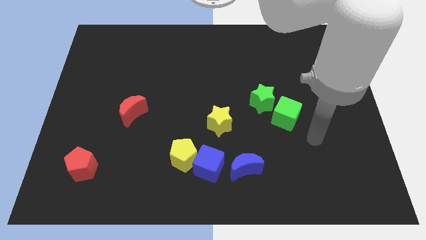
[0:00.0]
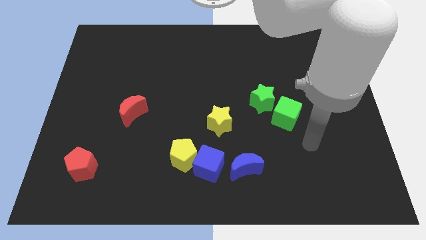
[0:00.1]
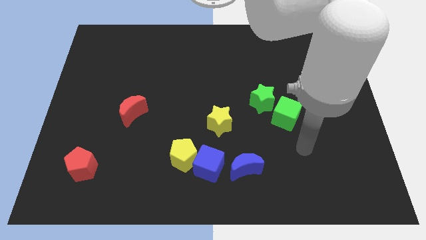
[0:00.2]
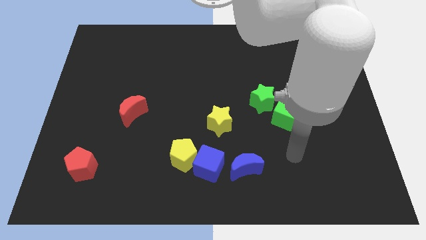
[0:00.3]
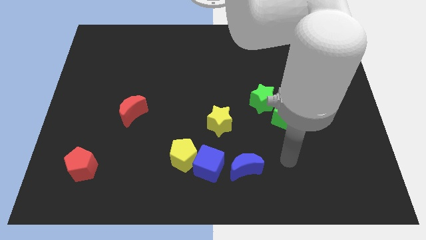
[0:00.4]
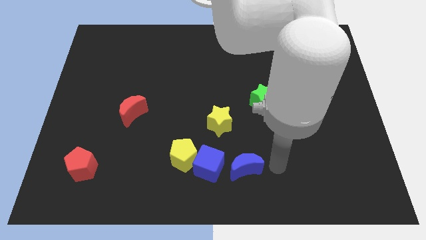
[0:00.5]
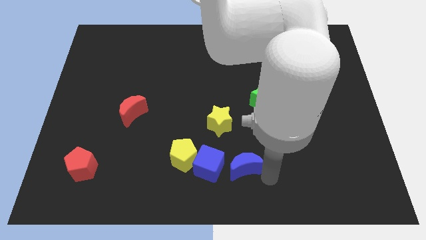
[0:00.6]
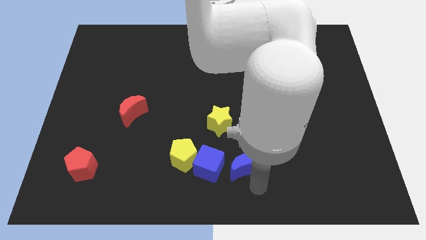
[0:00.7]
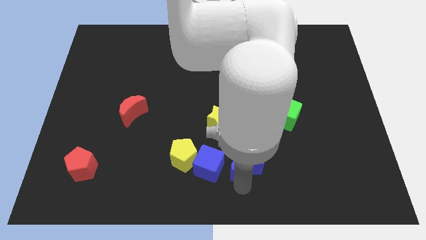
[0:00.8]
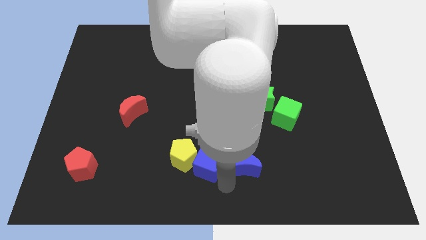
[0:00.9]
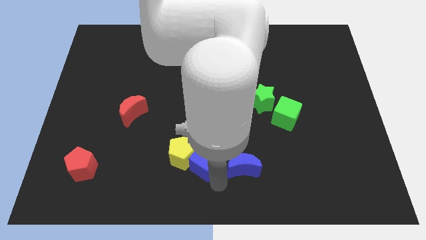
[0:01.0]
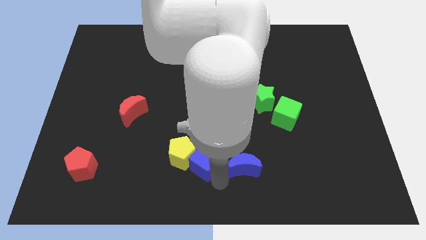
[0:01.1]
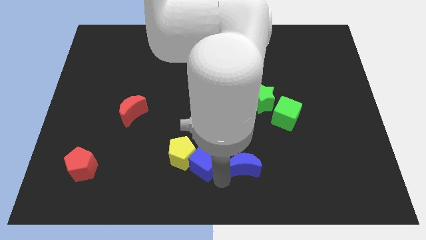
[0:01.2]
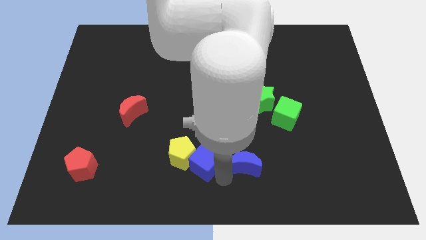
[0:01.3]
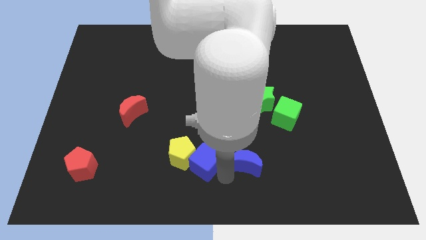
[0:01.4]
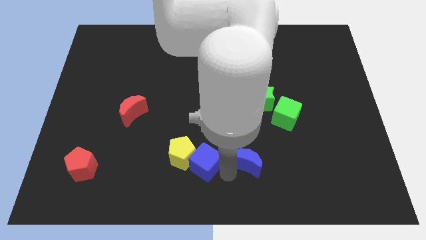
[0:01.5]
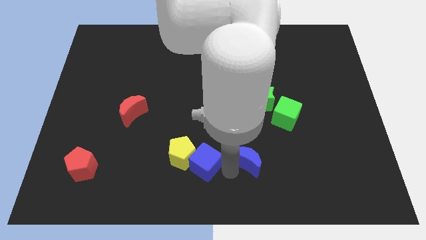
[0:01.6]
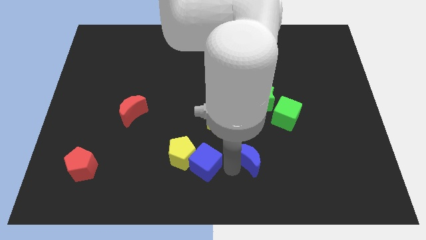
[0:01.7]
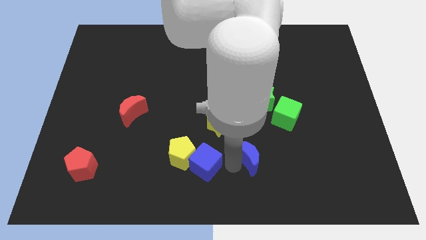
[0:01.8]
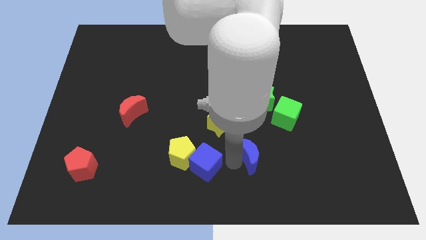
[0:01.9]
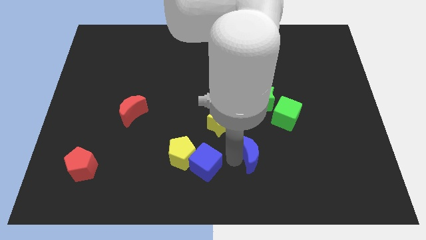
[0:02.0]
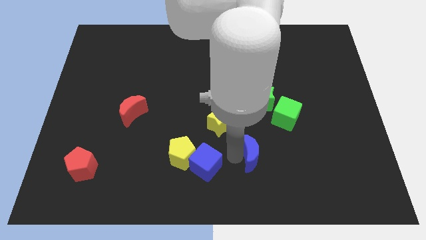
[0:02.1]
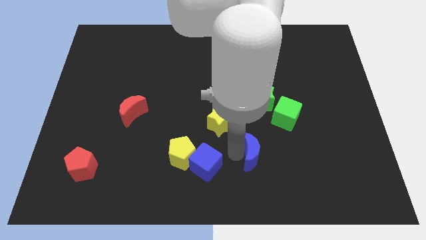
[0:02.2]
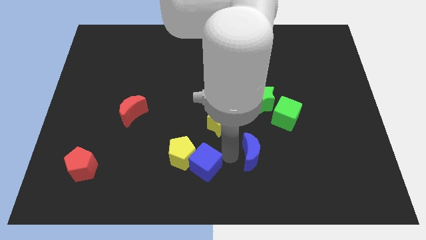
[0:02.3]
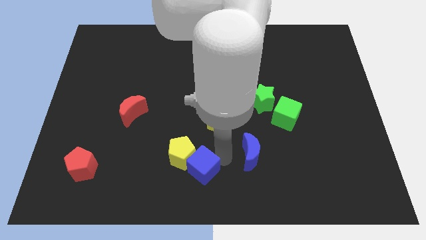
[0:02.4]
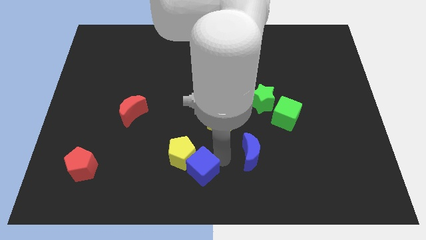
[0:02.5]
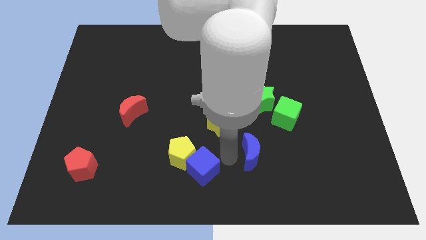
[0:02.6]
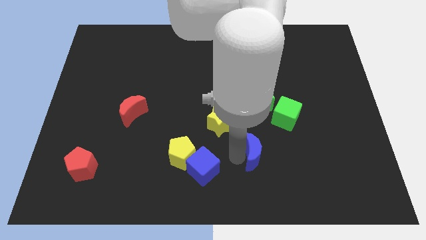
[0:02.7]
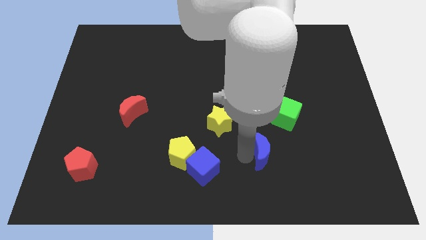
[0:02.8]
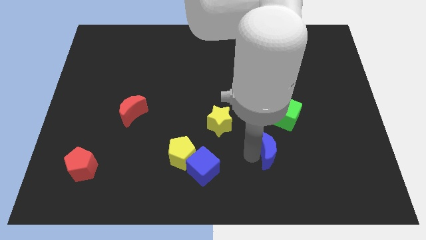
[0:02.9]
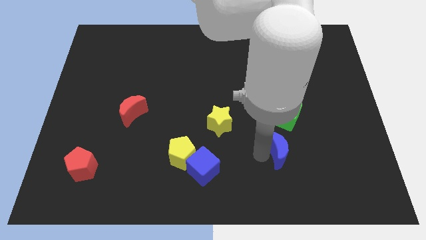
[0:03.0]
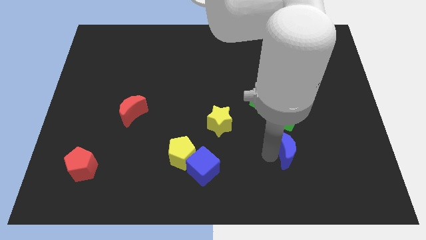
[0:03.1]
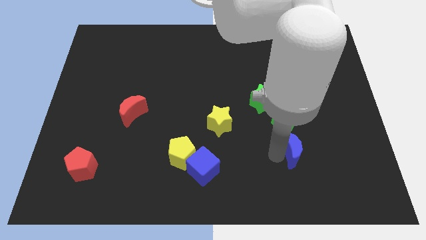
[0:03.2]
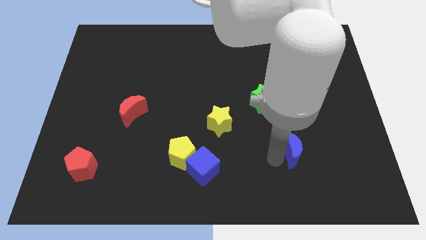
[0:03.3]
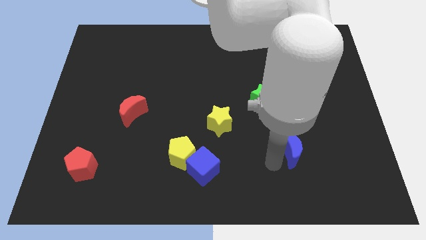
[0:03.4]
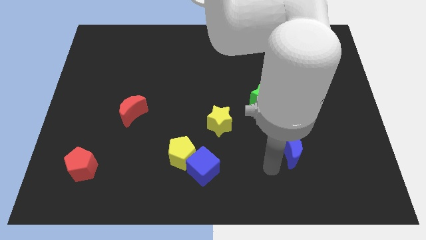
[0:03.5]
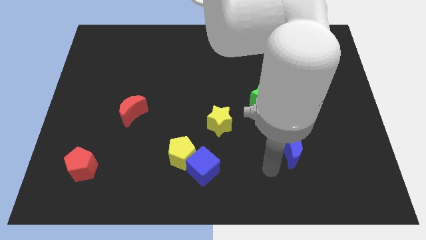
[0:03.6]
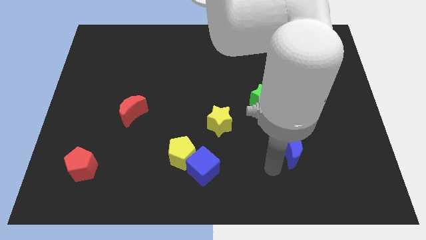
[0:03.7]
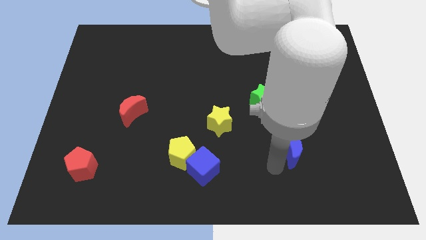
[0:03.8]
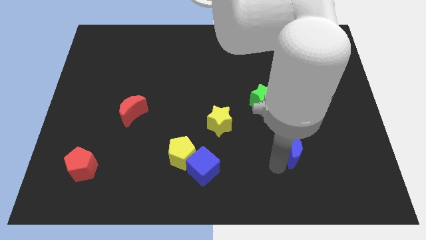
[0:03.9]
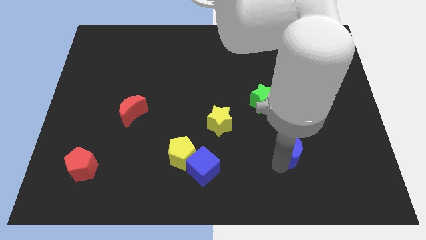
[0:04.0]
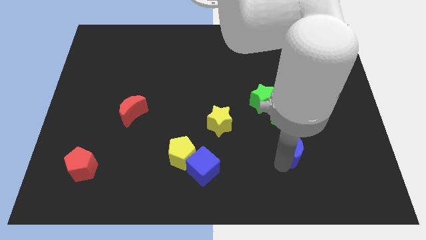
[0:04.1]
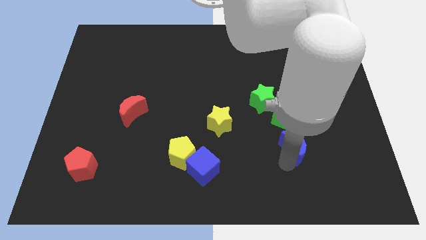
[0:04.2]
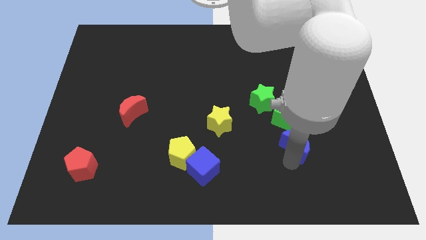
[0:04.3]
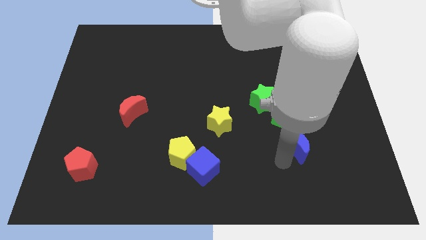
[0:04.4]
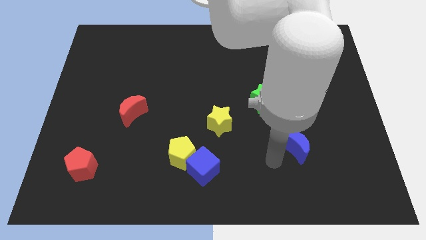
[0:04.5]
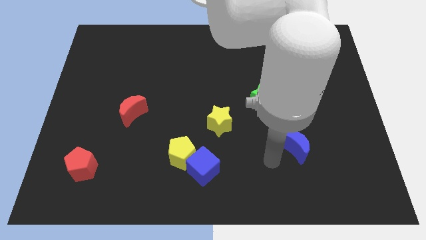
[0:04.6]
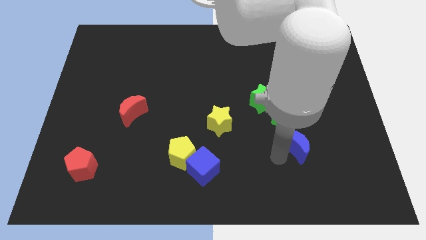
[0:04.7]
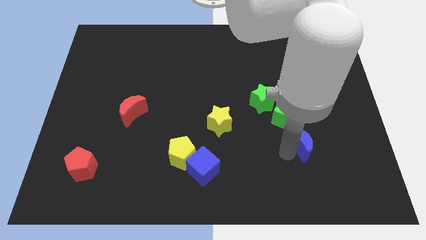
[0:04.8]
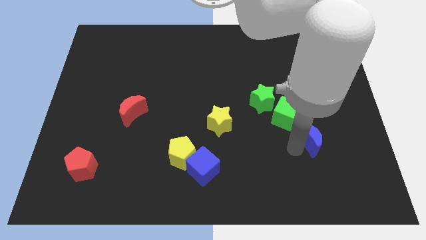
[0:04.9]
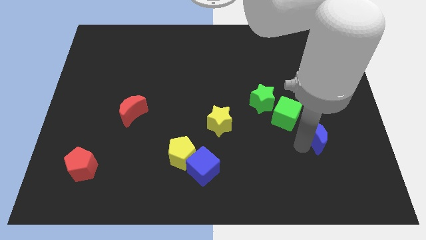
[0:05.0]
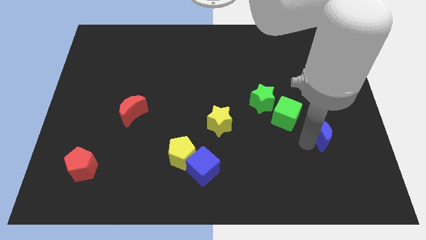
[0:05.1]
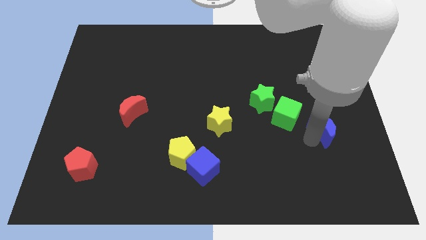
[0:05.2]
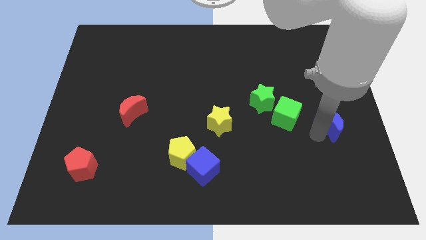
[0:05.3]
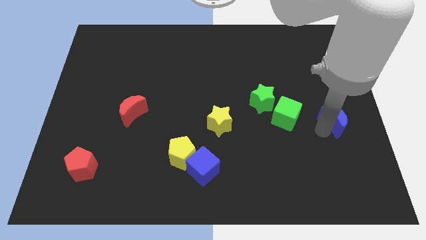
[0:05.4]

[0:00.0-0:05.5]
push the blue moon to the center right

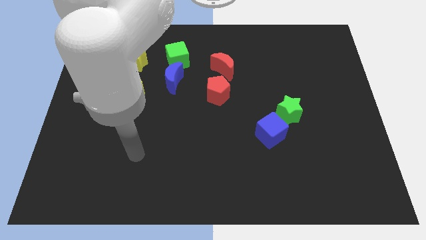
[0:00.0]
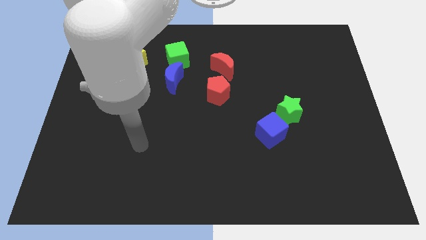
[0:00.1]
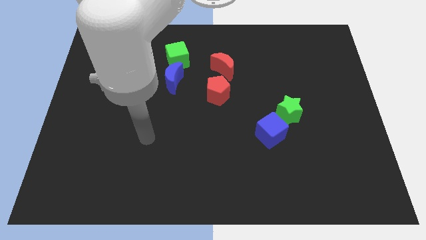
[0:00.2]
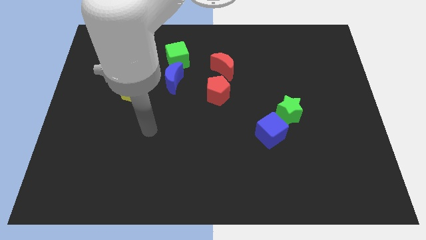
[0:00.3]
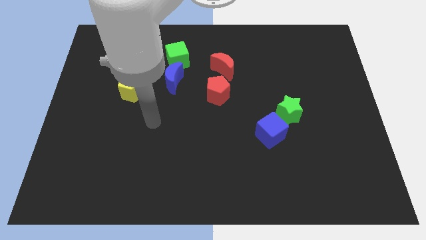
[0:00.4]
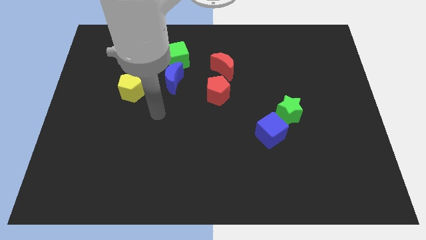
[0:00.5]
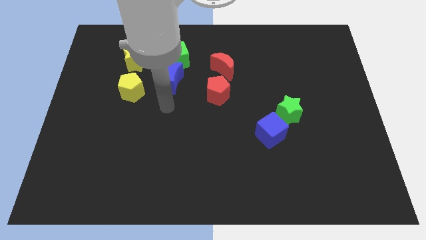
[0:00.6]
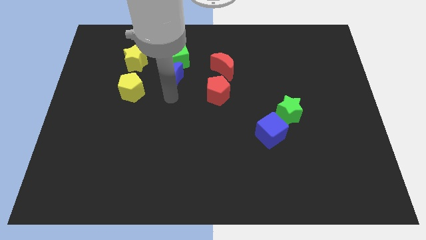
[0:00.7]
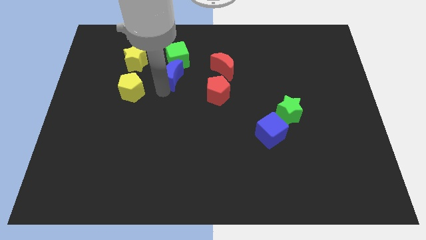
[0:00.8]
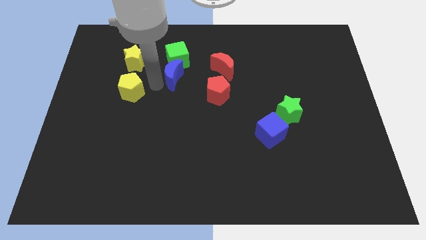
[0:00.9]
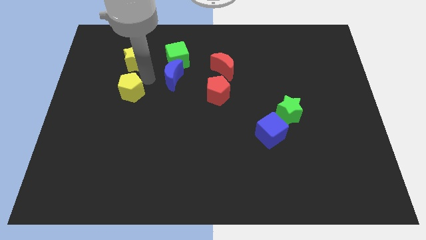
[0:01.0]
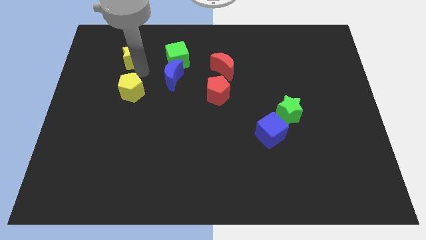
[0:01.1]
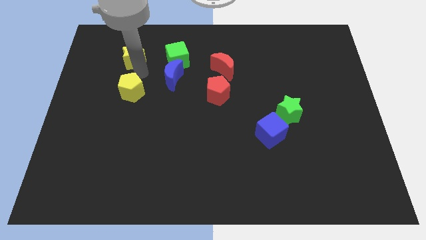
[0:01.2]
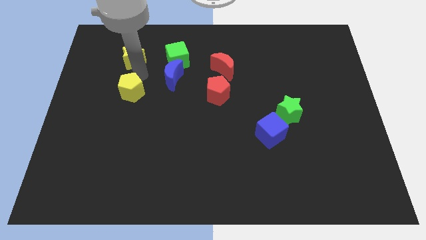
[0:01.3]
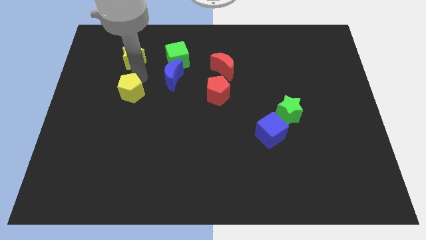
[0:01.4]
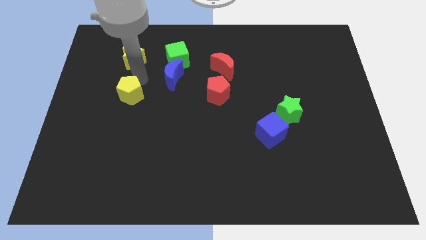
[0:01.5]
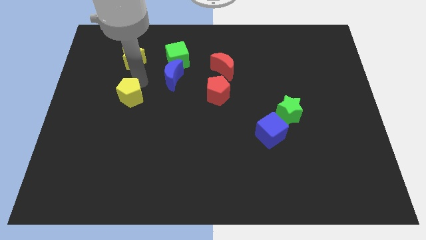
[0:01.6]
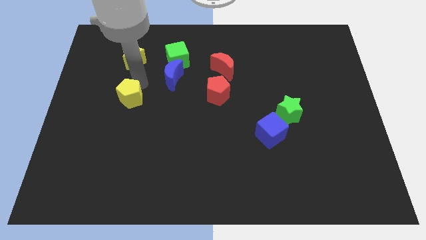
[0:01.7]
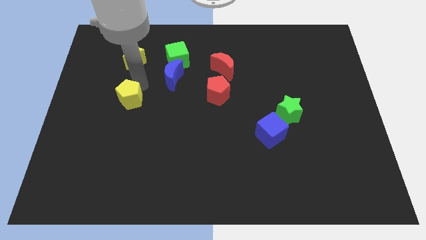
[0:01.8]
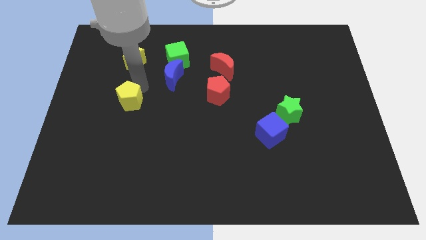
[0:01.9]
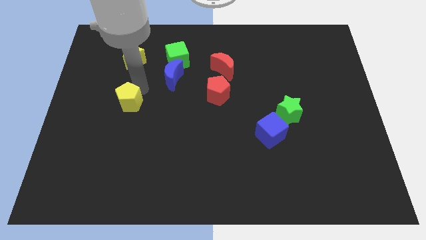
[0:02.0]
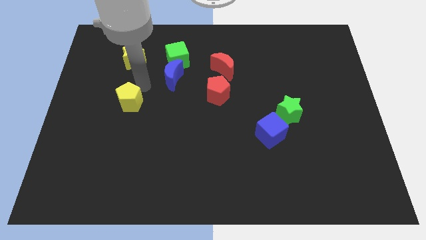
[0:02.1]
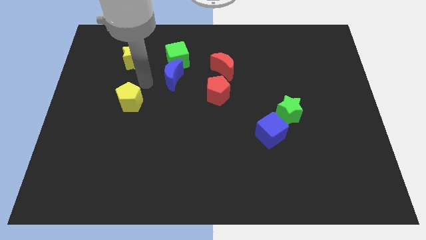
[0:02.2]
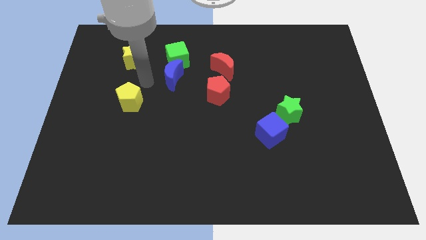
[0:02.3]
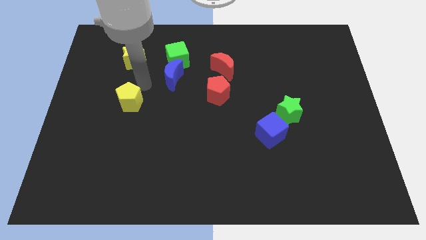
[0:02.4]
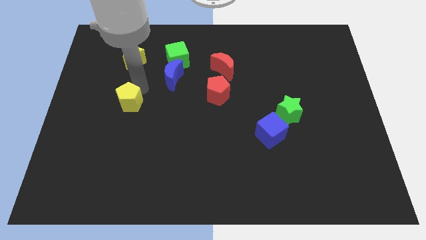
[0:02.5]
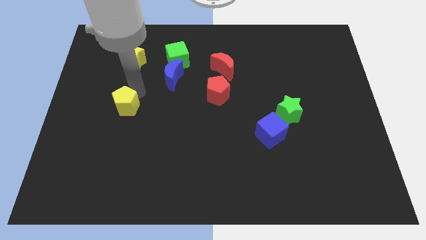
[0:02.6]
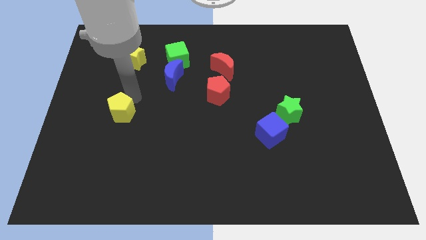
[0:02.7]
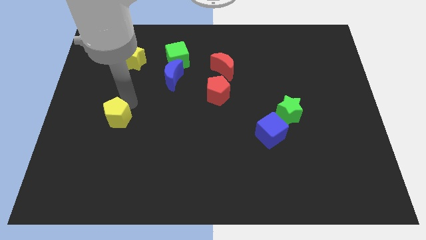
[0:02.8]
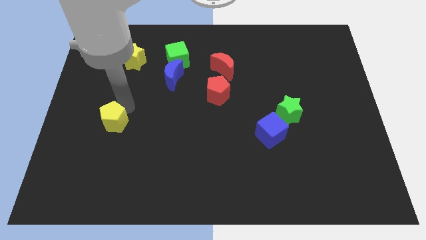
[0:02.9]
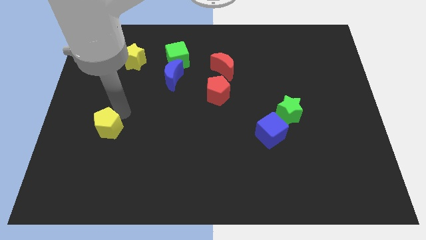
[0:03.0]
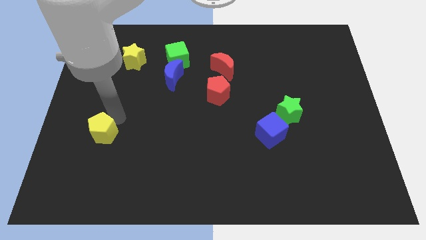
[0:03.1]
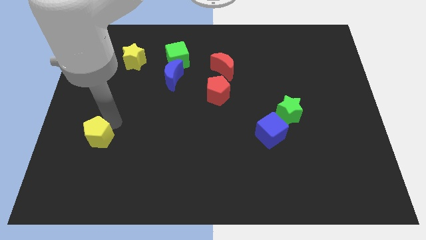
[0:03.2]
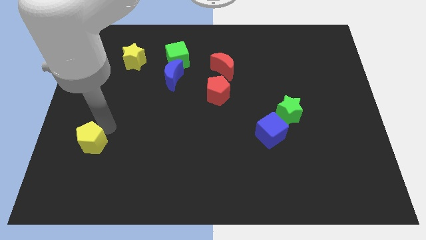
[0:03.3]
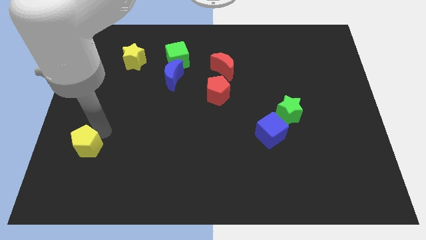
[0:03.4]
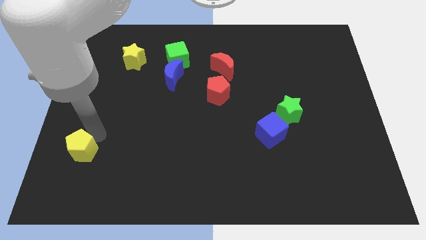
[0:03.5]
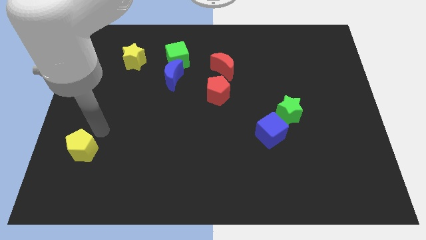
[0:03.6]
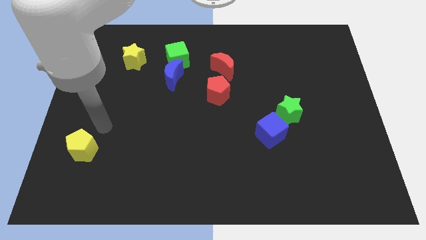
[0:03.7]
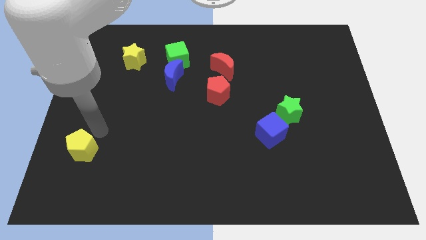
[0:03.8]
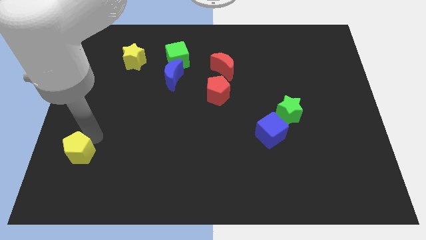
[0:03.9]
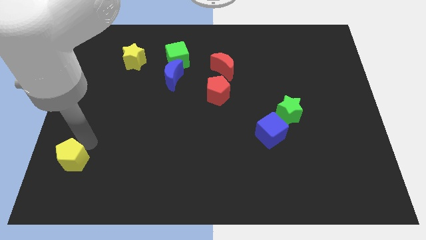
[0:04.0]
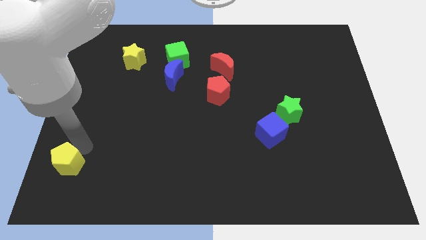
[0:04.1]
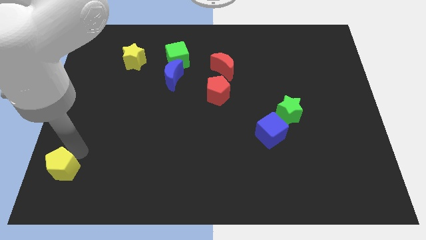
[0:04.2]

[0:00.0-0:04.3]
push the yellow pentagon to the bottom left
